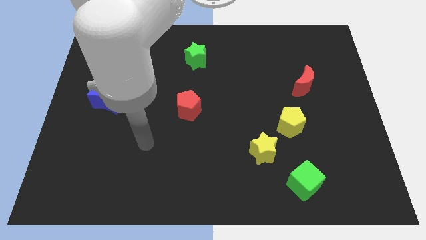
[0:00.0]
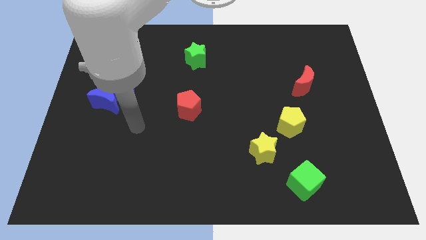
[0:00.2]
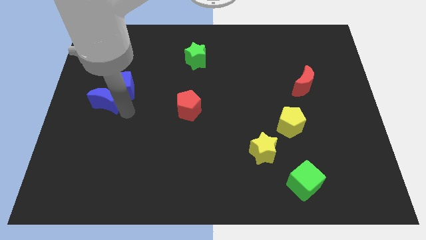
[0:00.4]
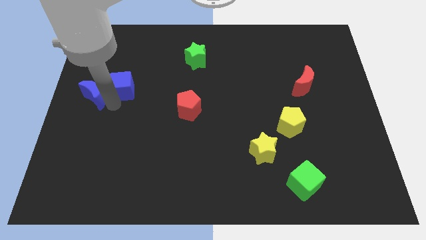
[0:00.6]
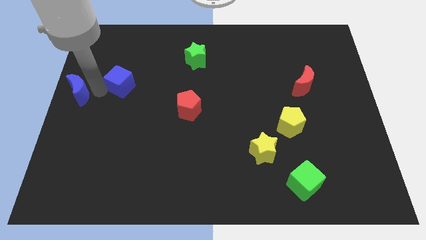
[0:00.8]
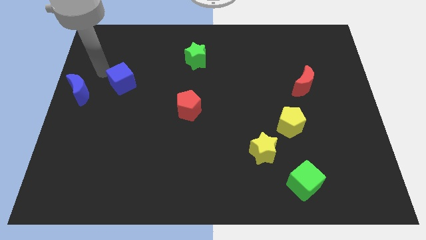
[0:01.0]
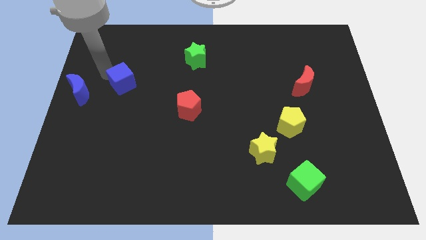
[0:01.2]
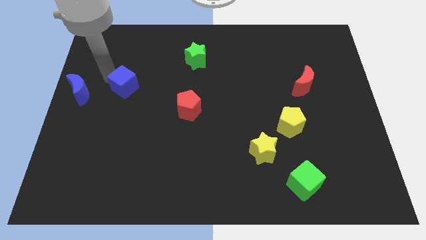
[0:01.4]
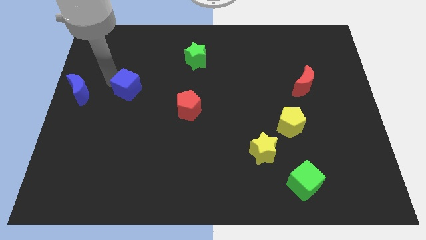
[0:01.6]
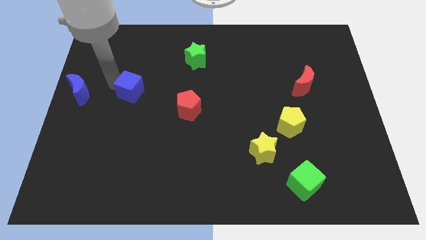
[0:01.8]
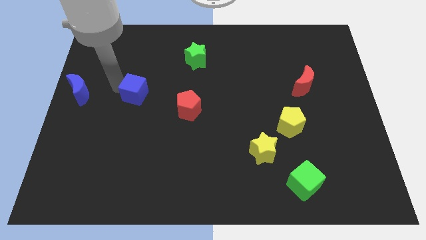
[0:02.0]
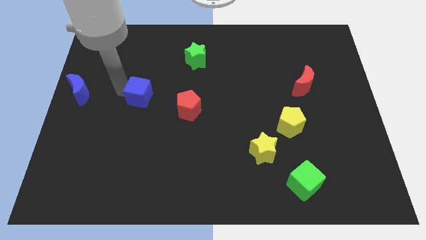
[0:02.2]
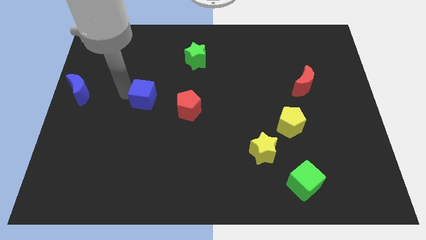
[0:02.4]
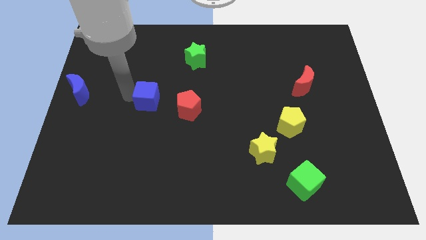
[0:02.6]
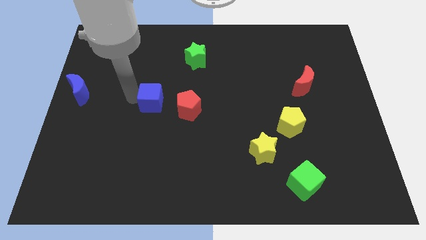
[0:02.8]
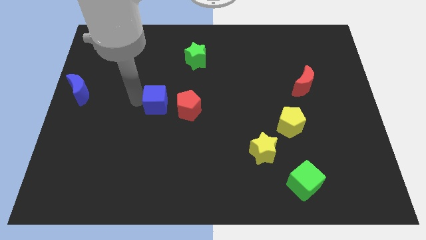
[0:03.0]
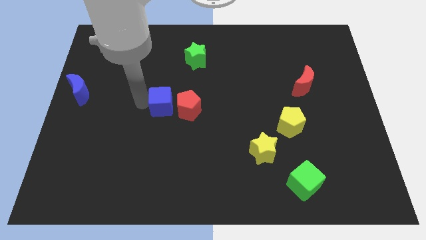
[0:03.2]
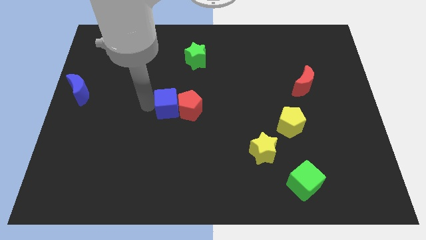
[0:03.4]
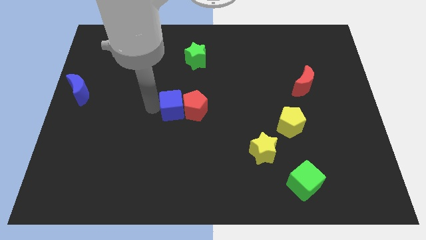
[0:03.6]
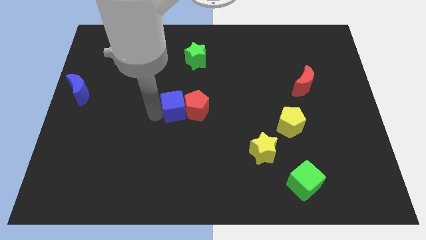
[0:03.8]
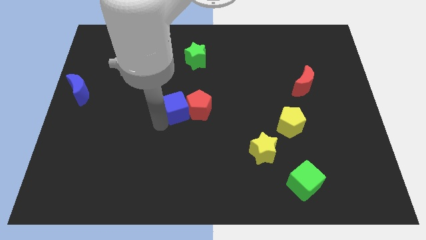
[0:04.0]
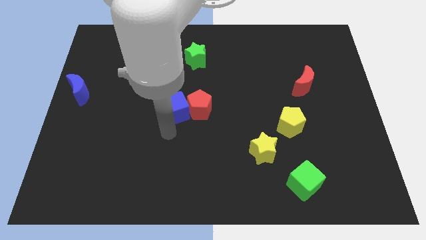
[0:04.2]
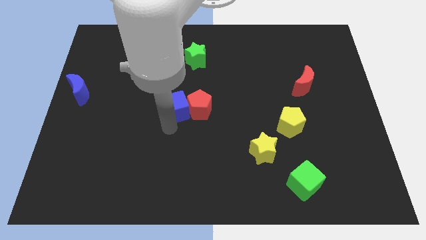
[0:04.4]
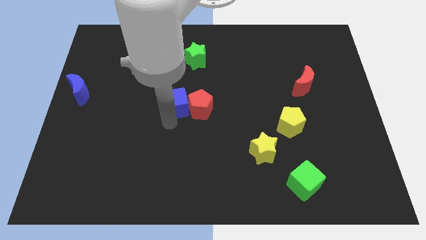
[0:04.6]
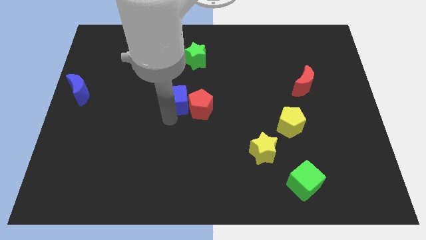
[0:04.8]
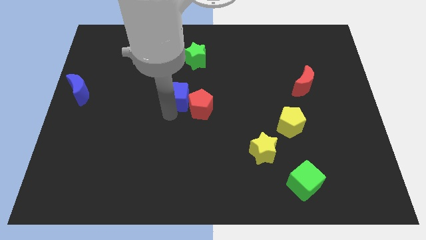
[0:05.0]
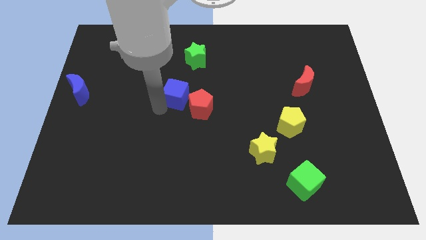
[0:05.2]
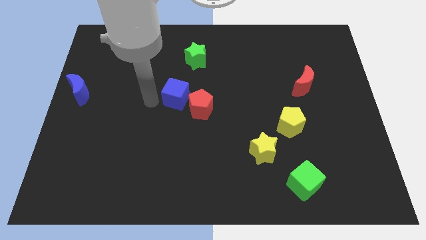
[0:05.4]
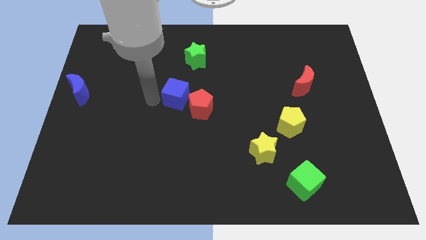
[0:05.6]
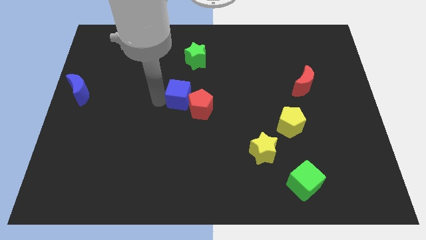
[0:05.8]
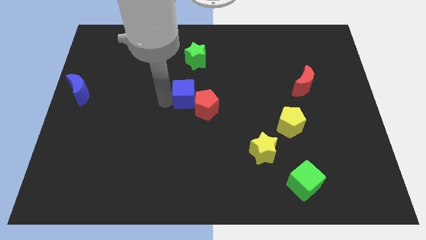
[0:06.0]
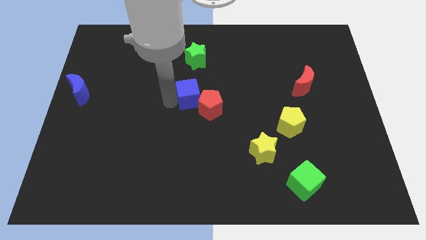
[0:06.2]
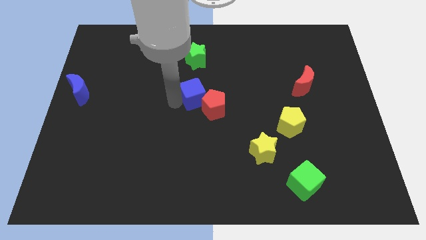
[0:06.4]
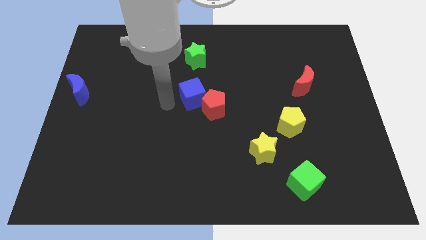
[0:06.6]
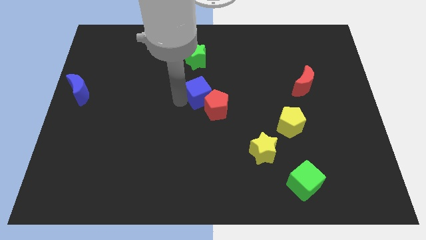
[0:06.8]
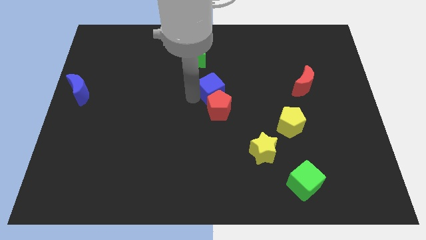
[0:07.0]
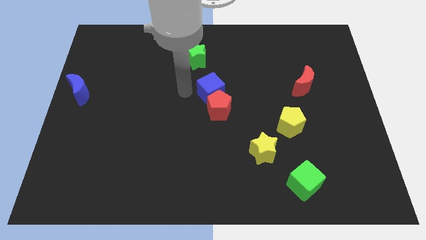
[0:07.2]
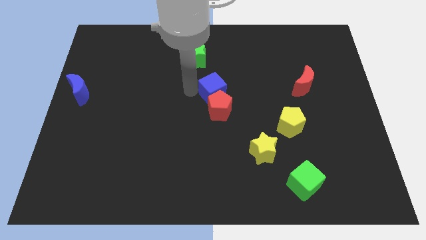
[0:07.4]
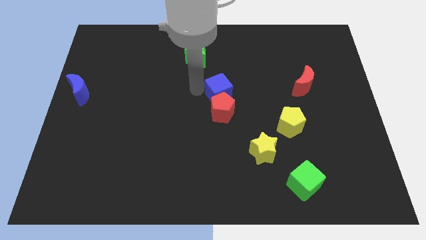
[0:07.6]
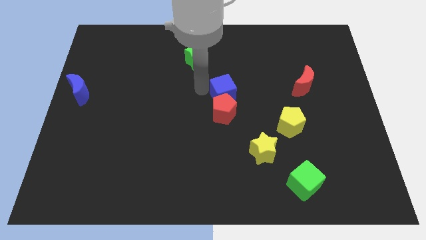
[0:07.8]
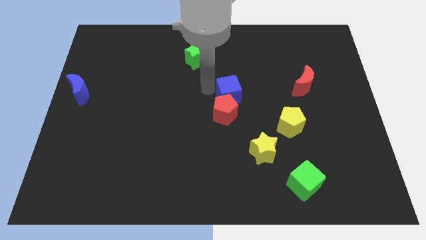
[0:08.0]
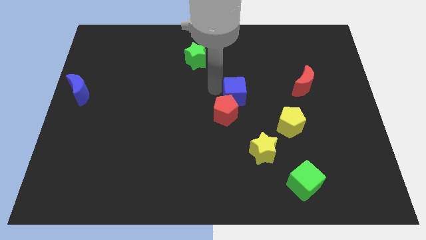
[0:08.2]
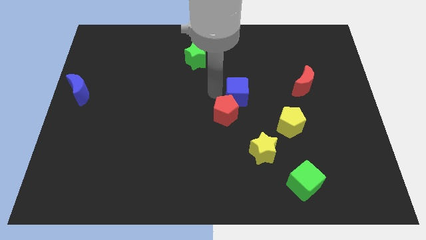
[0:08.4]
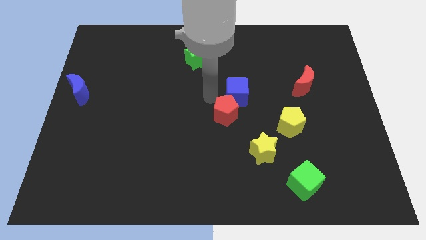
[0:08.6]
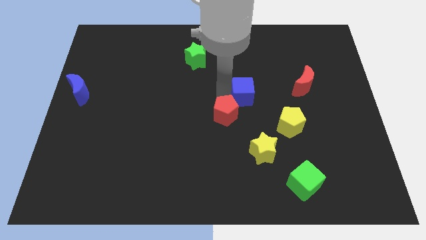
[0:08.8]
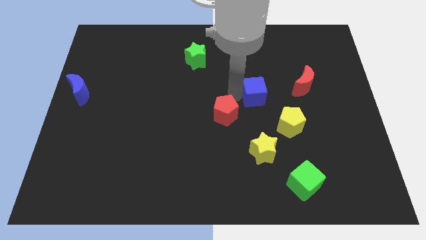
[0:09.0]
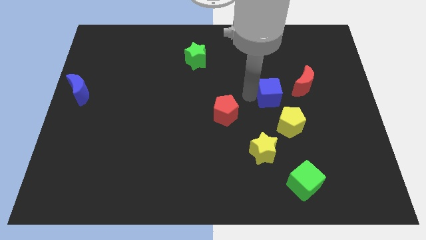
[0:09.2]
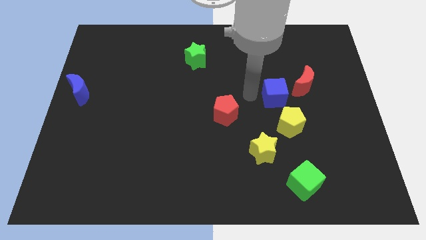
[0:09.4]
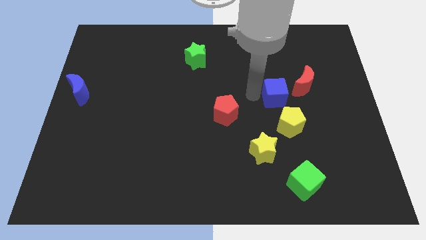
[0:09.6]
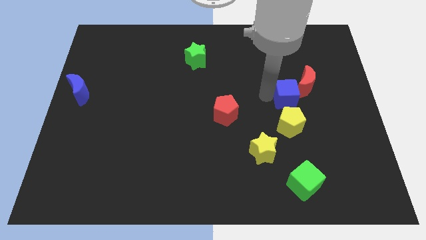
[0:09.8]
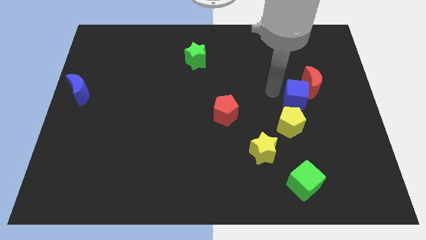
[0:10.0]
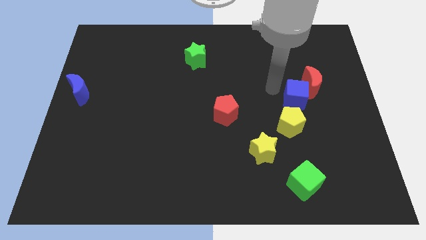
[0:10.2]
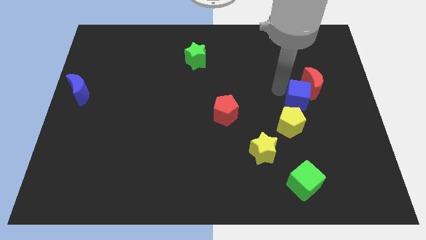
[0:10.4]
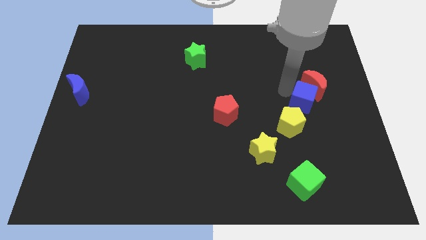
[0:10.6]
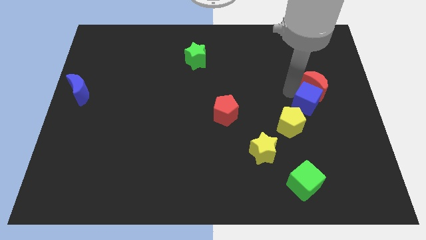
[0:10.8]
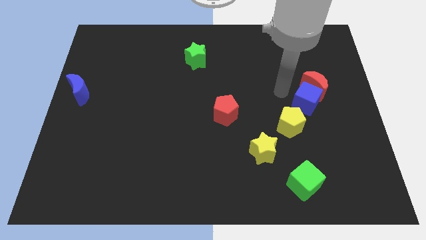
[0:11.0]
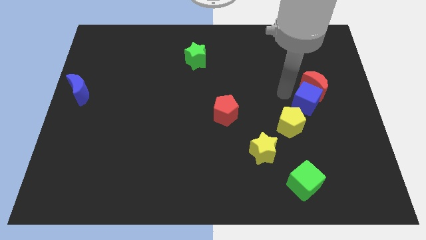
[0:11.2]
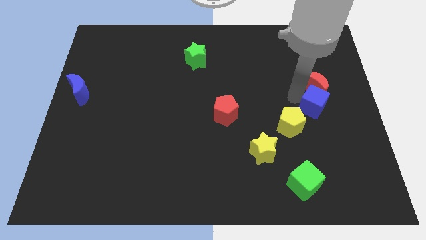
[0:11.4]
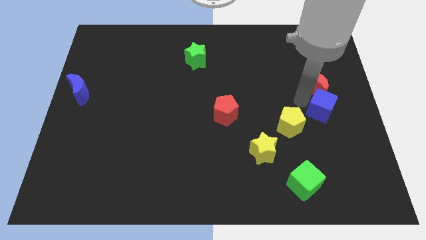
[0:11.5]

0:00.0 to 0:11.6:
move the blue cube to the center right

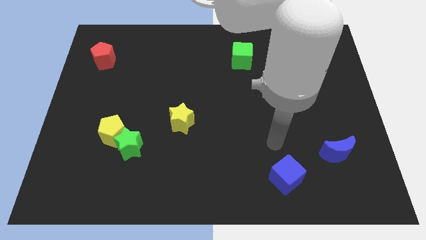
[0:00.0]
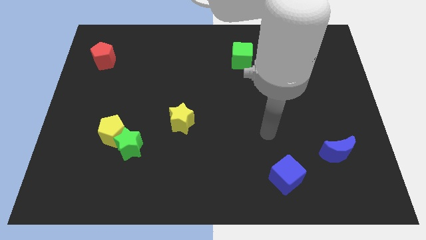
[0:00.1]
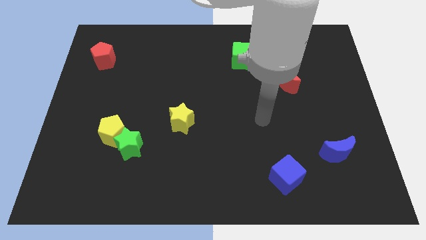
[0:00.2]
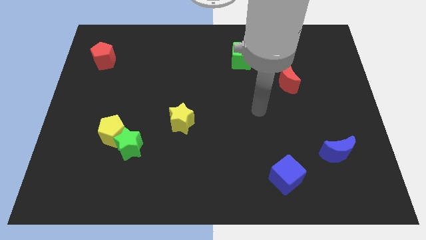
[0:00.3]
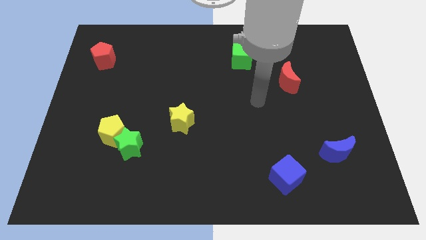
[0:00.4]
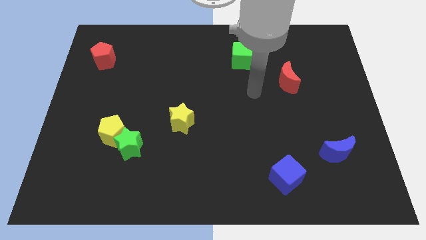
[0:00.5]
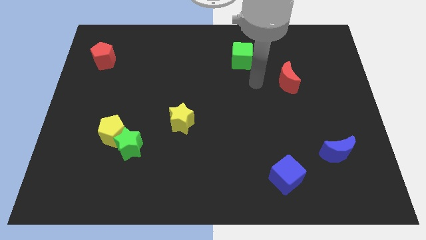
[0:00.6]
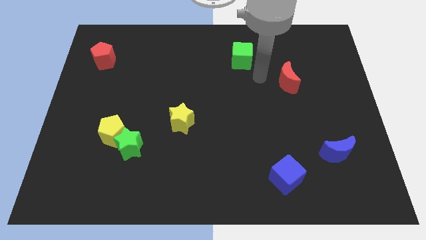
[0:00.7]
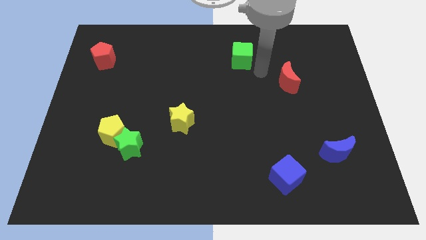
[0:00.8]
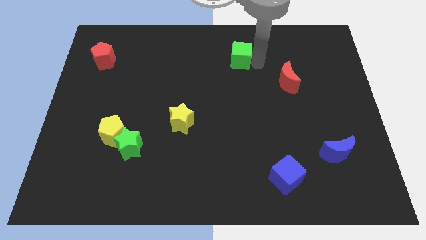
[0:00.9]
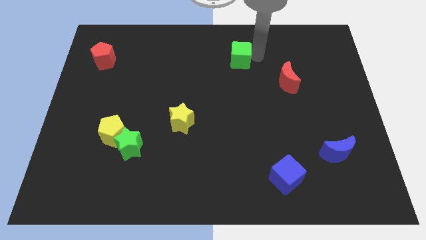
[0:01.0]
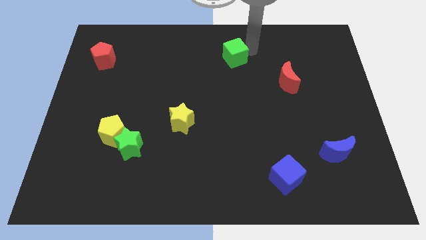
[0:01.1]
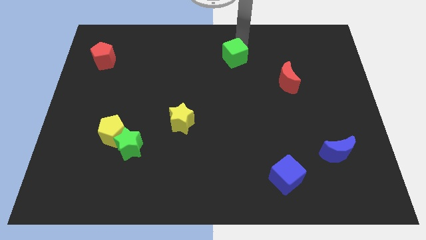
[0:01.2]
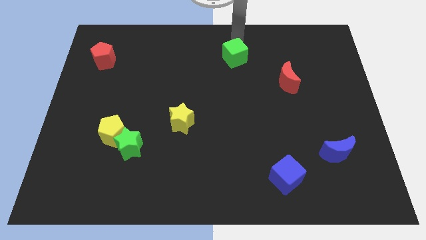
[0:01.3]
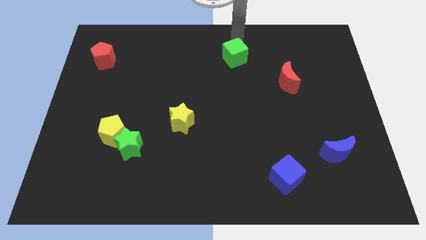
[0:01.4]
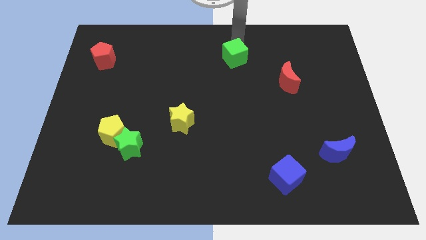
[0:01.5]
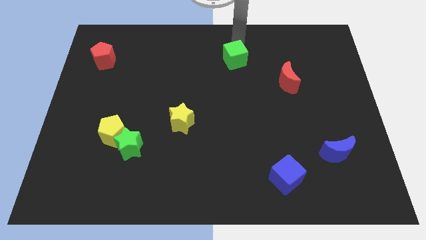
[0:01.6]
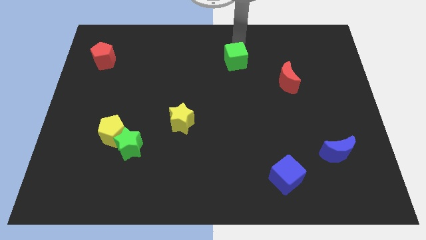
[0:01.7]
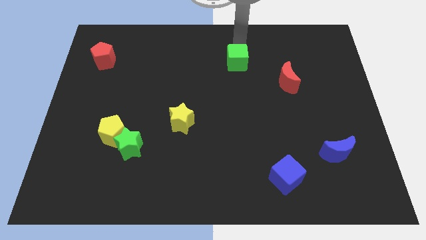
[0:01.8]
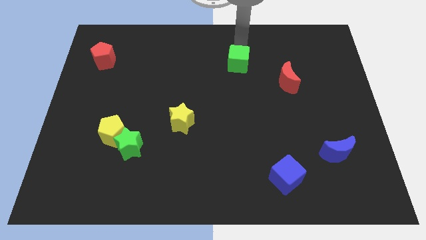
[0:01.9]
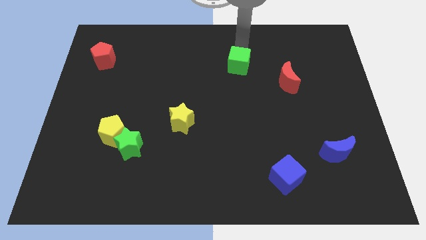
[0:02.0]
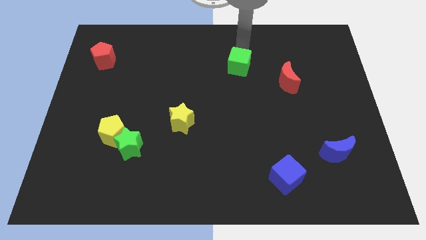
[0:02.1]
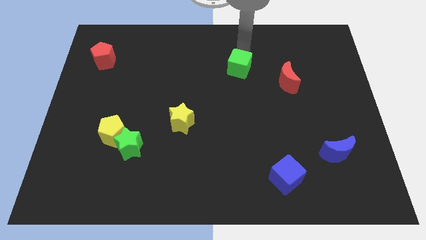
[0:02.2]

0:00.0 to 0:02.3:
move the green cube to the middle of the board
